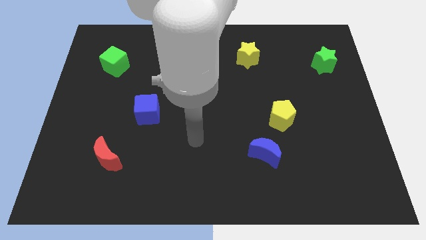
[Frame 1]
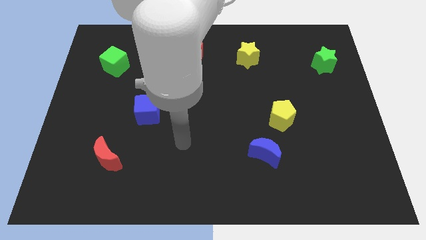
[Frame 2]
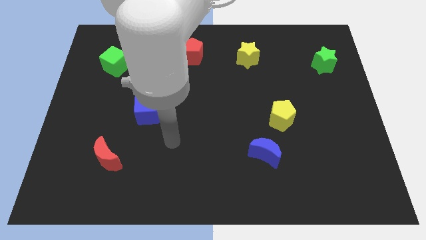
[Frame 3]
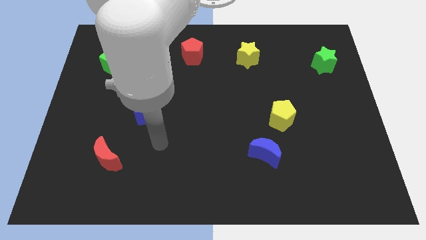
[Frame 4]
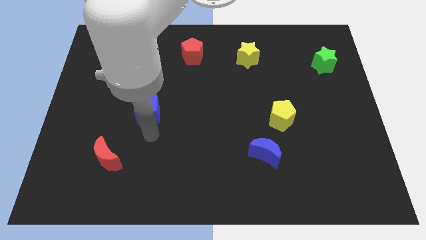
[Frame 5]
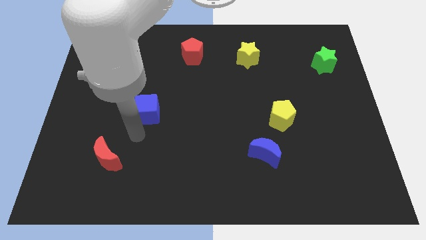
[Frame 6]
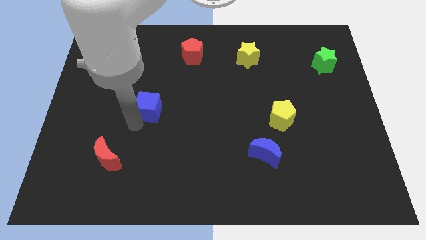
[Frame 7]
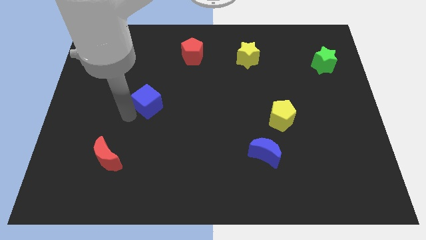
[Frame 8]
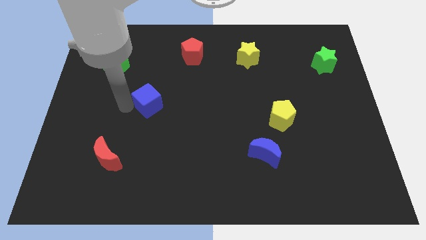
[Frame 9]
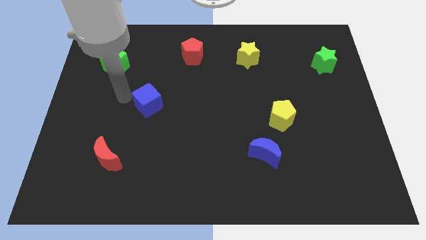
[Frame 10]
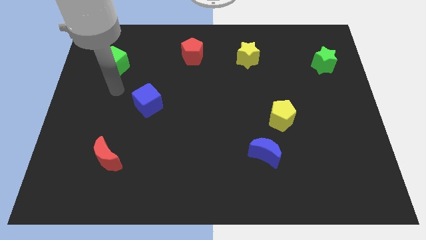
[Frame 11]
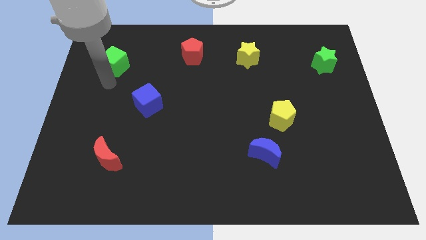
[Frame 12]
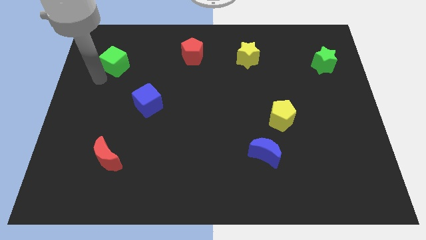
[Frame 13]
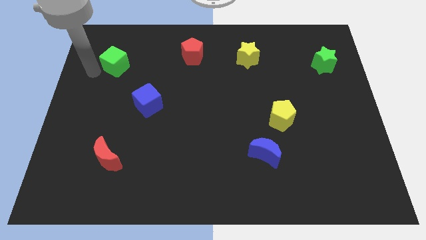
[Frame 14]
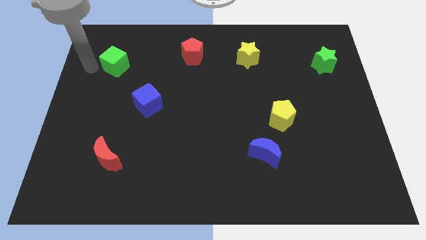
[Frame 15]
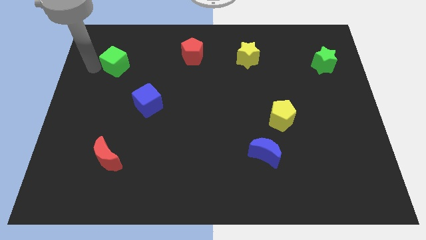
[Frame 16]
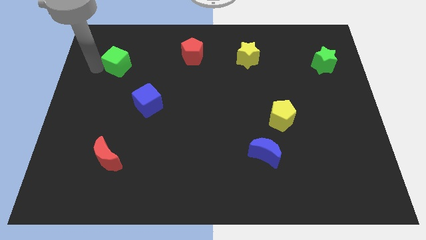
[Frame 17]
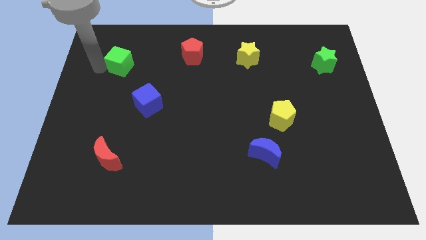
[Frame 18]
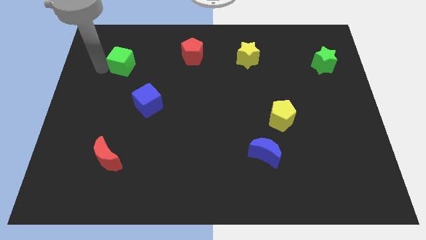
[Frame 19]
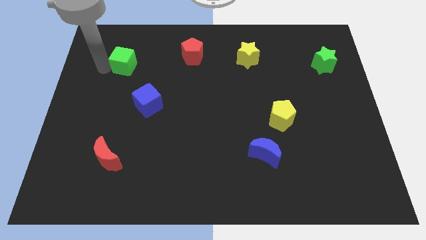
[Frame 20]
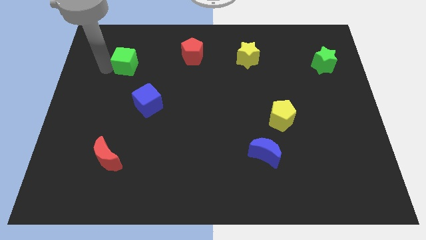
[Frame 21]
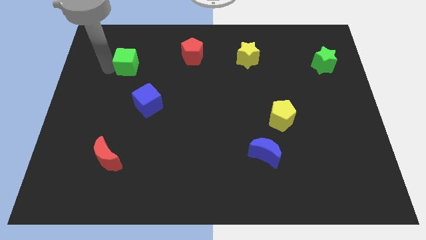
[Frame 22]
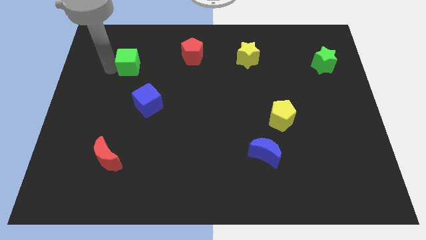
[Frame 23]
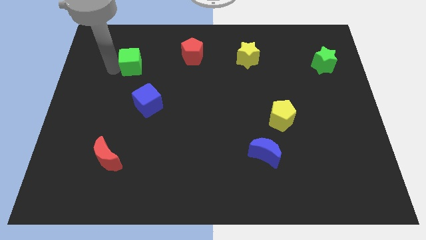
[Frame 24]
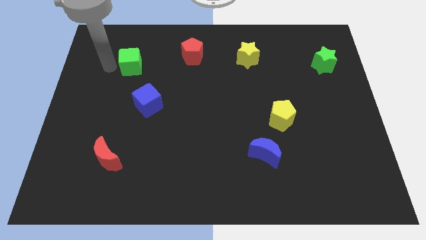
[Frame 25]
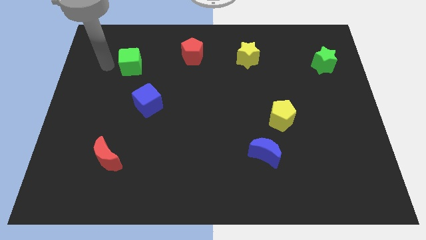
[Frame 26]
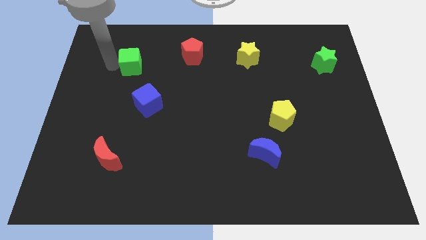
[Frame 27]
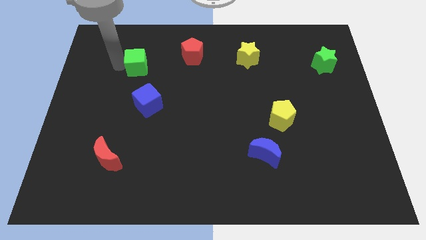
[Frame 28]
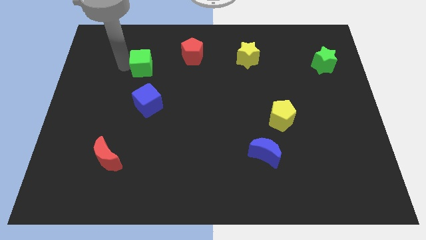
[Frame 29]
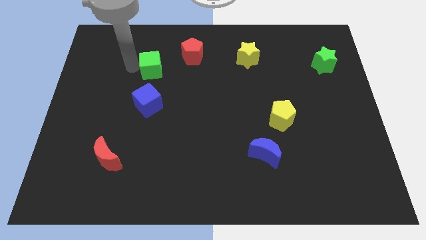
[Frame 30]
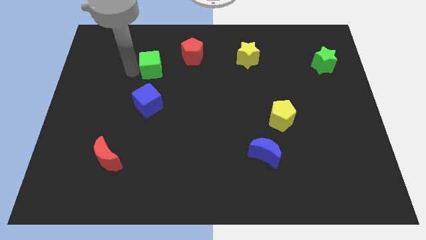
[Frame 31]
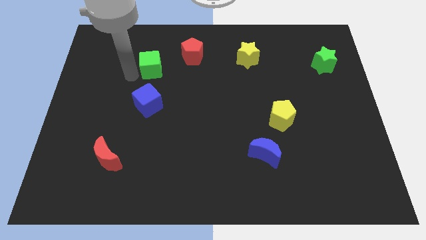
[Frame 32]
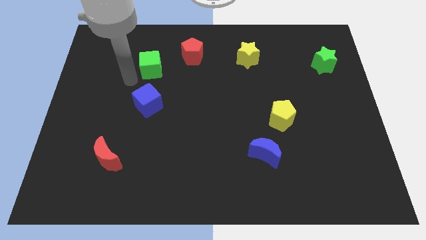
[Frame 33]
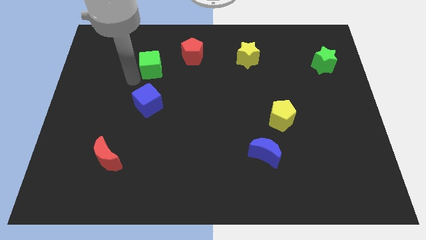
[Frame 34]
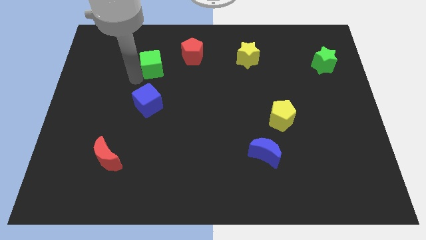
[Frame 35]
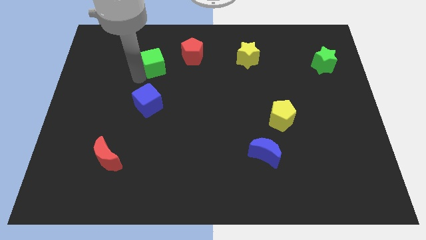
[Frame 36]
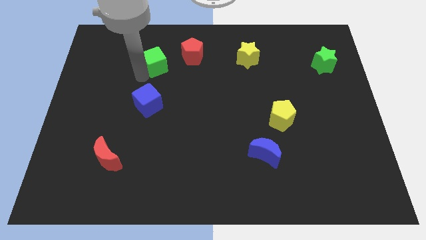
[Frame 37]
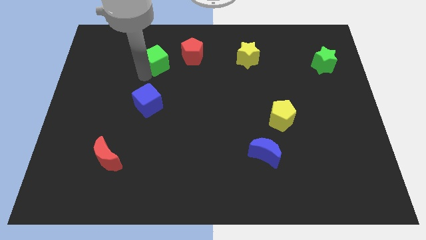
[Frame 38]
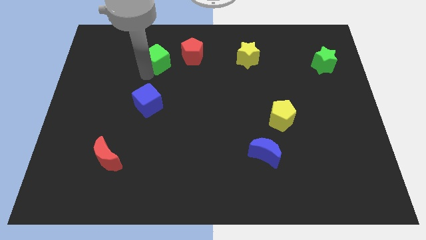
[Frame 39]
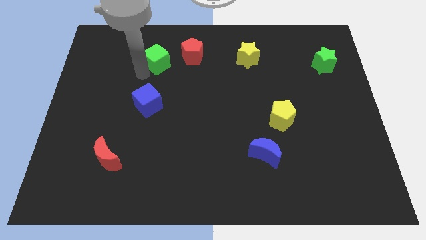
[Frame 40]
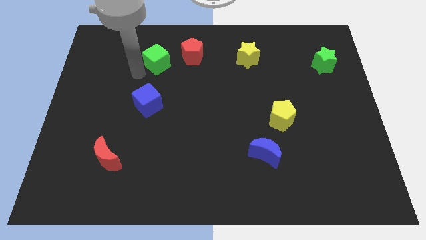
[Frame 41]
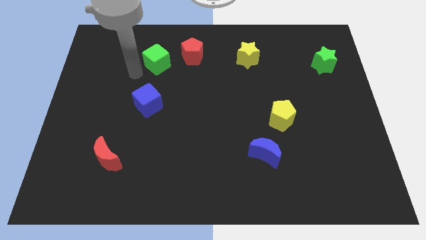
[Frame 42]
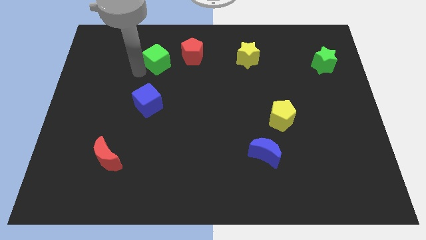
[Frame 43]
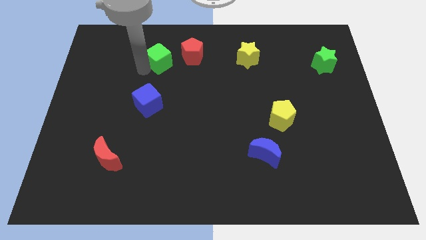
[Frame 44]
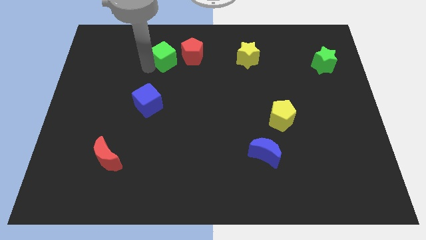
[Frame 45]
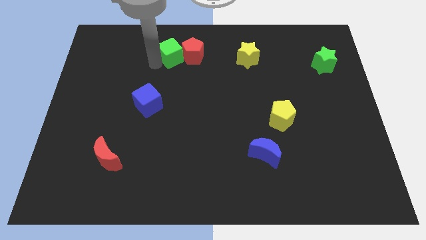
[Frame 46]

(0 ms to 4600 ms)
push the green cube towards the red pentagon

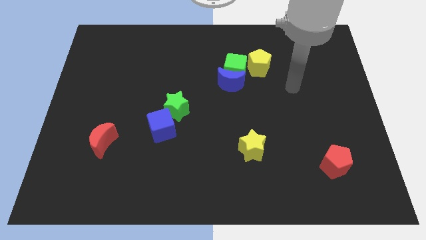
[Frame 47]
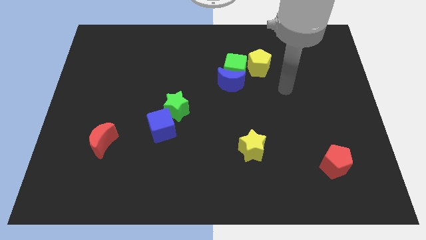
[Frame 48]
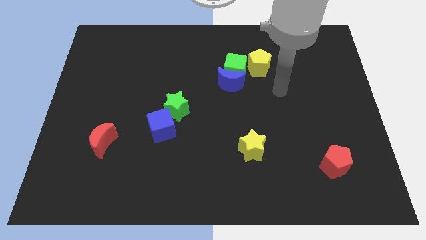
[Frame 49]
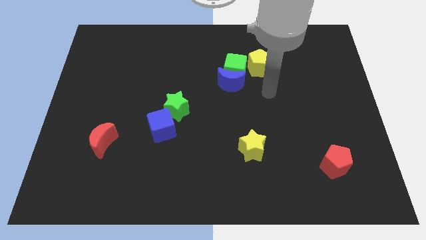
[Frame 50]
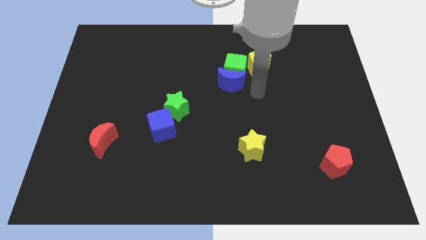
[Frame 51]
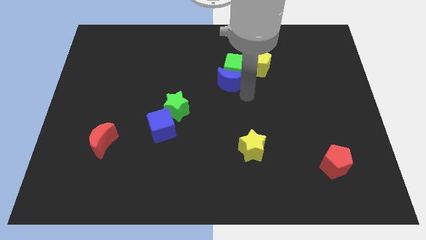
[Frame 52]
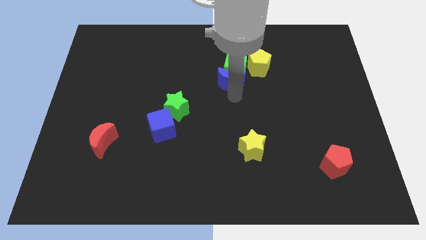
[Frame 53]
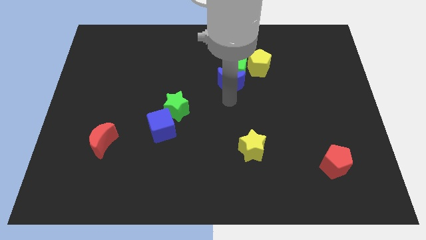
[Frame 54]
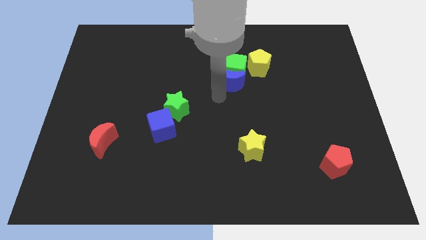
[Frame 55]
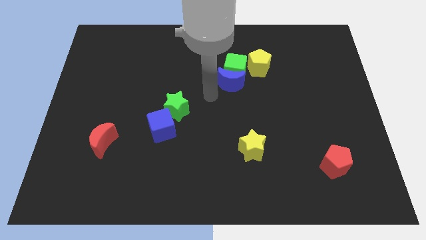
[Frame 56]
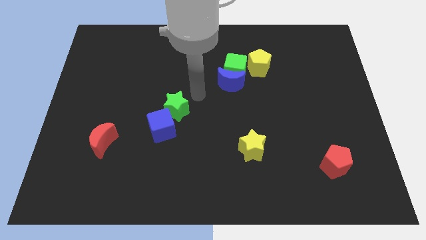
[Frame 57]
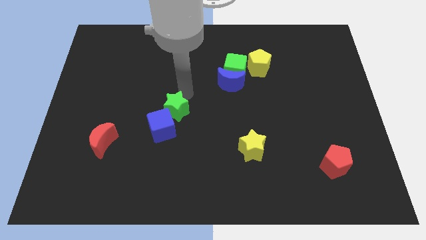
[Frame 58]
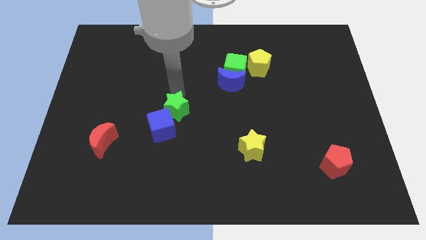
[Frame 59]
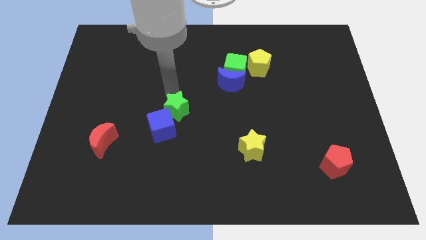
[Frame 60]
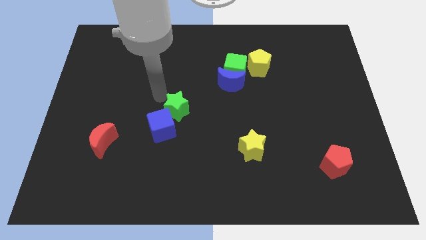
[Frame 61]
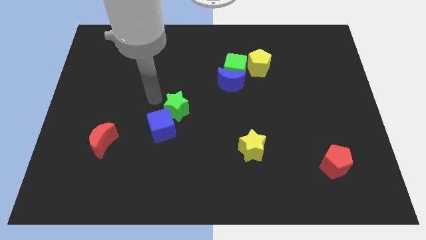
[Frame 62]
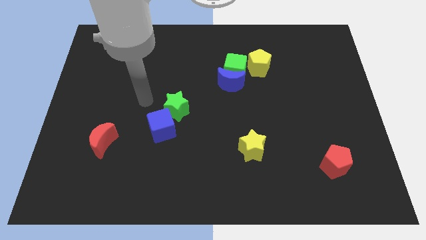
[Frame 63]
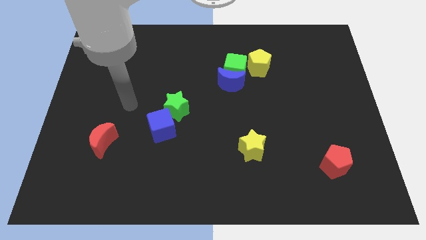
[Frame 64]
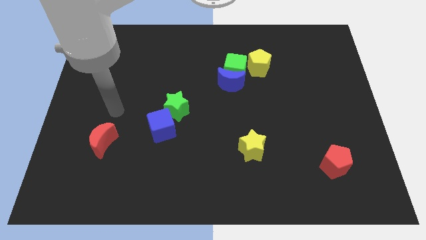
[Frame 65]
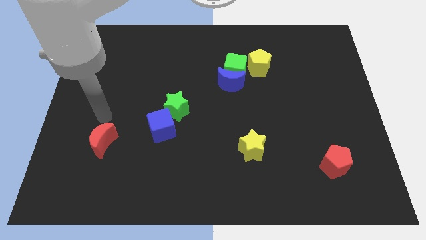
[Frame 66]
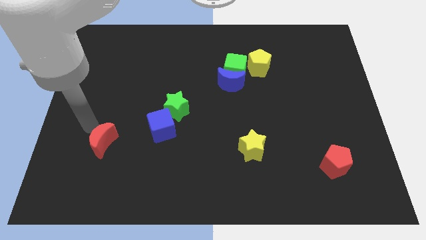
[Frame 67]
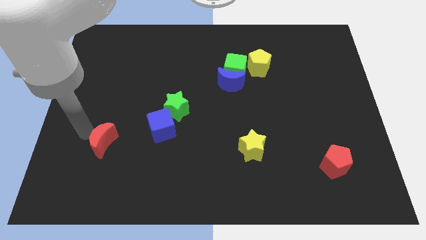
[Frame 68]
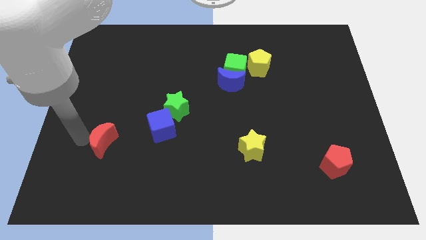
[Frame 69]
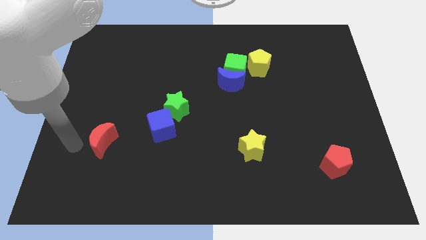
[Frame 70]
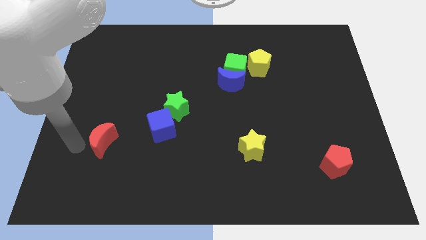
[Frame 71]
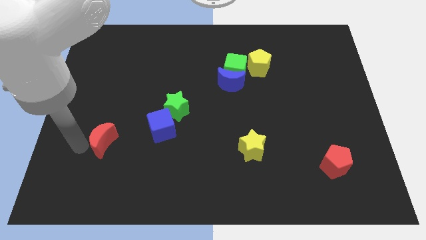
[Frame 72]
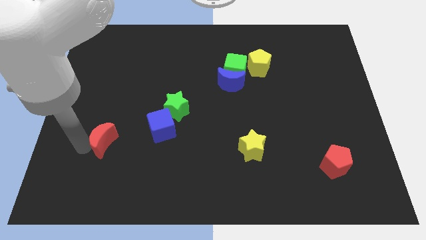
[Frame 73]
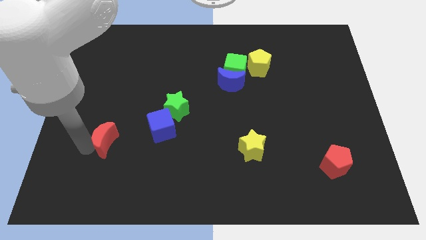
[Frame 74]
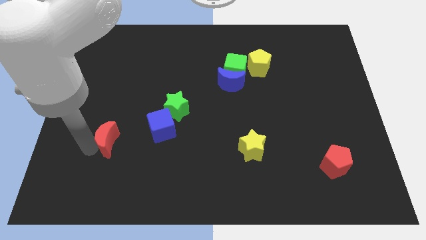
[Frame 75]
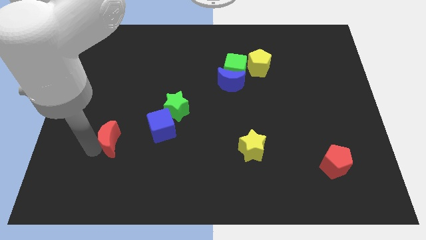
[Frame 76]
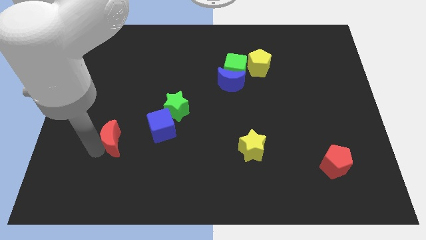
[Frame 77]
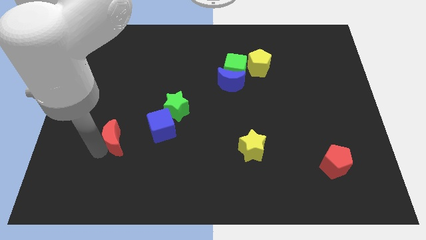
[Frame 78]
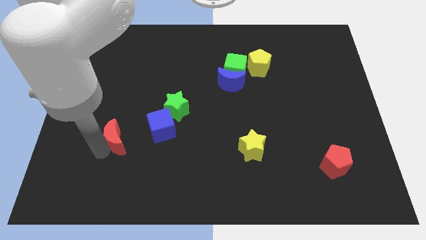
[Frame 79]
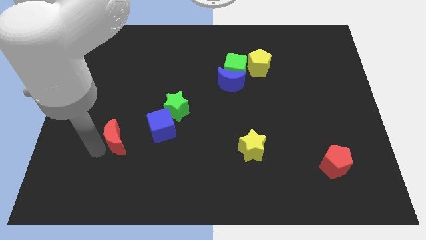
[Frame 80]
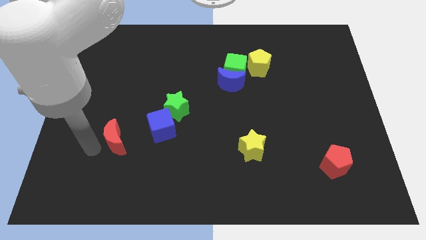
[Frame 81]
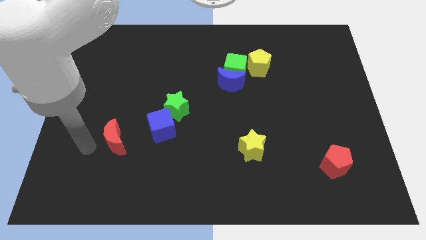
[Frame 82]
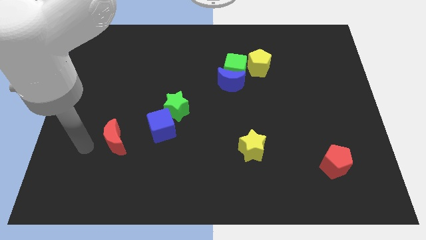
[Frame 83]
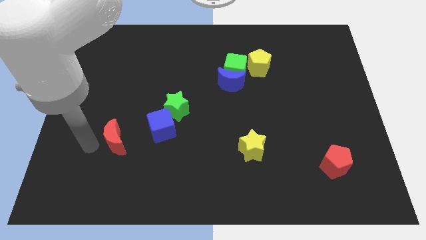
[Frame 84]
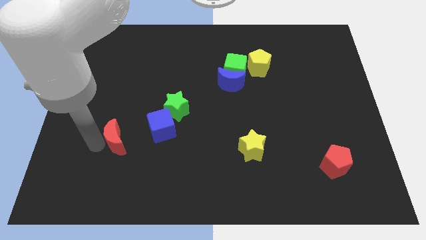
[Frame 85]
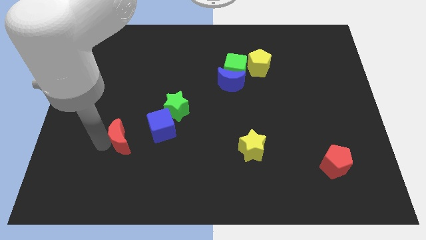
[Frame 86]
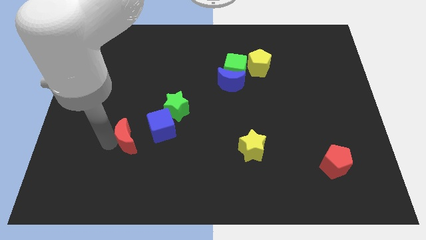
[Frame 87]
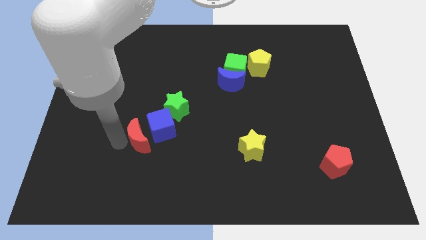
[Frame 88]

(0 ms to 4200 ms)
put the red moon towards the blue cube
